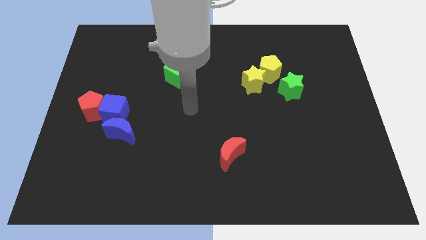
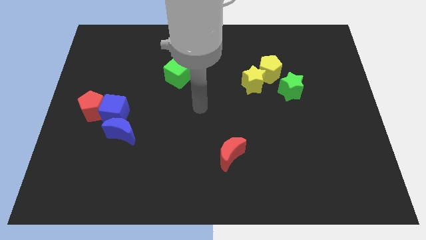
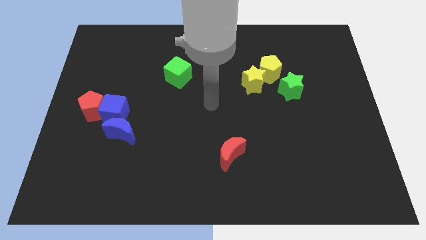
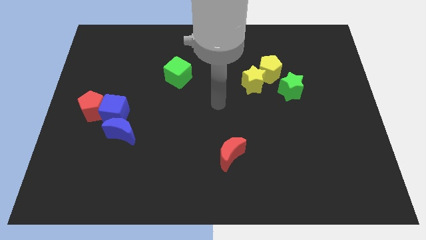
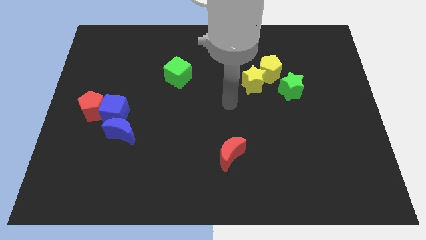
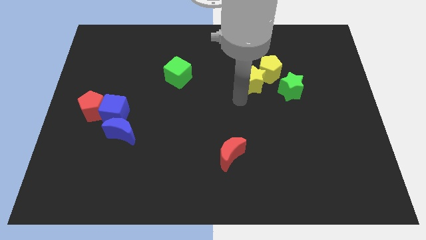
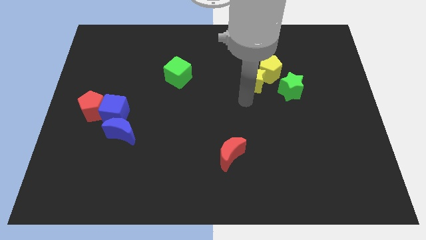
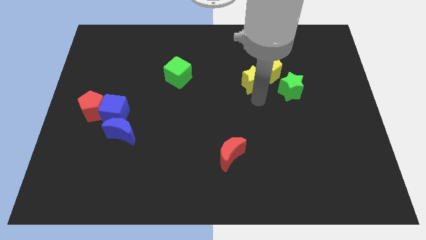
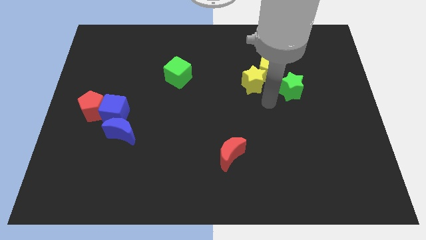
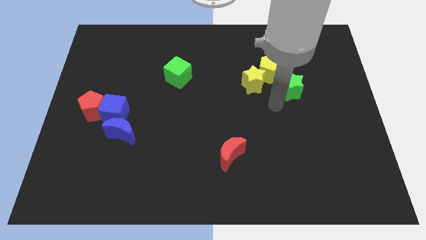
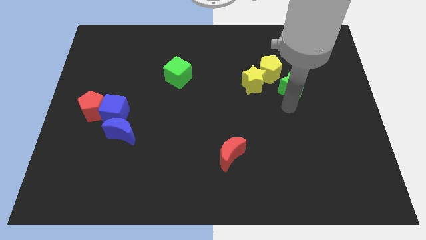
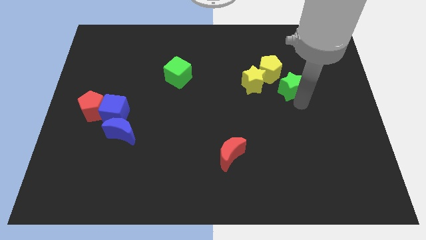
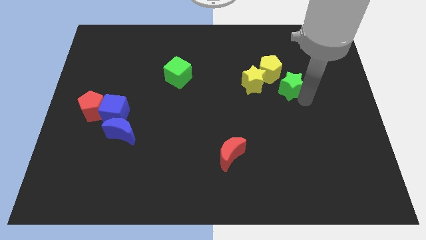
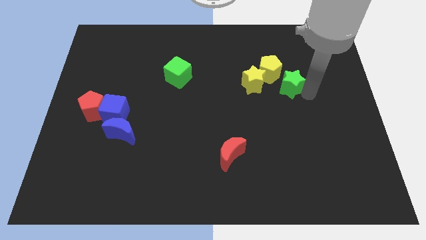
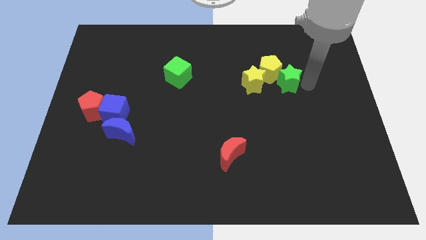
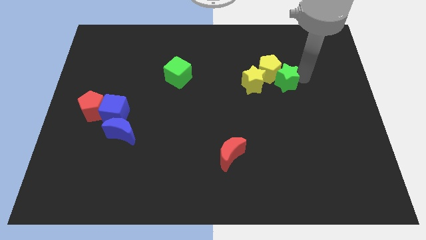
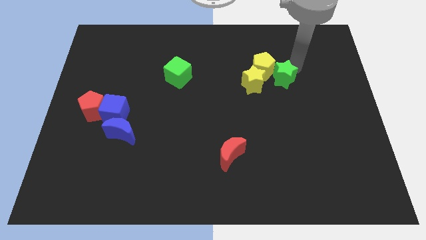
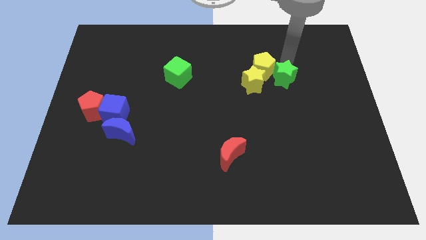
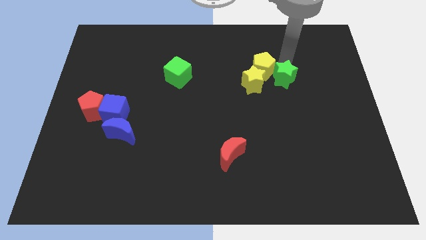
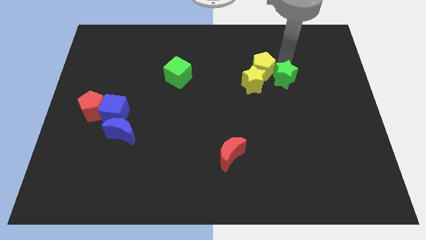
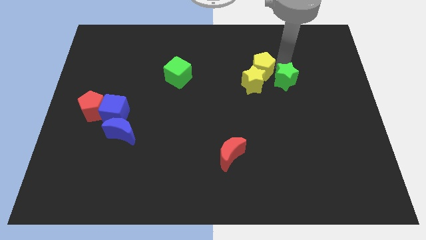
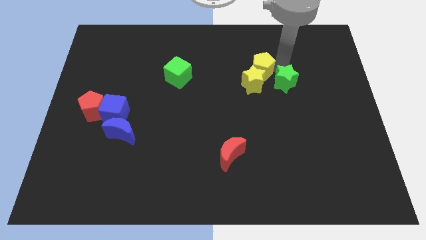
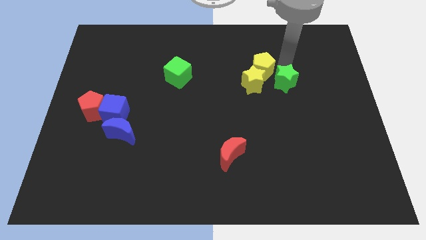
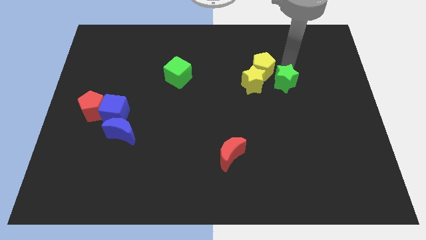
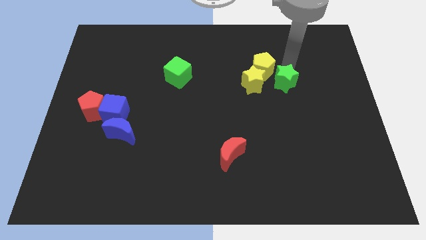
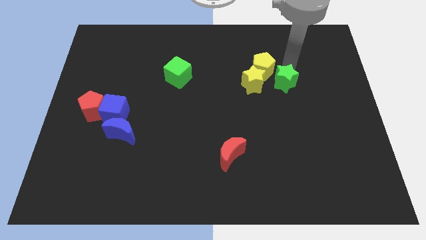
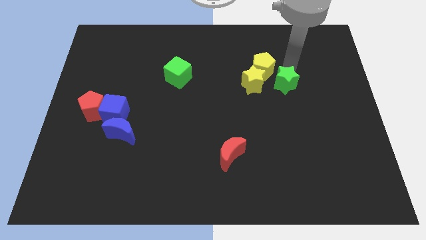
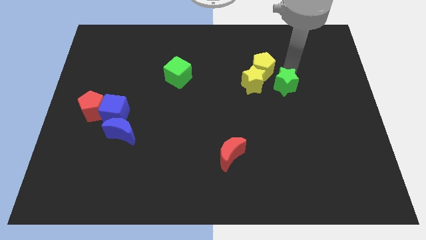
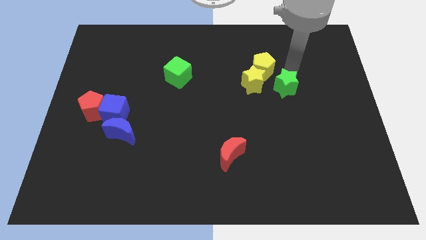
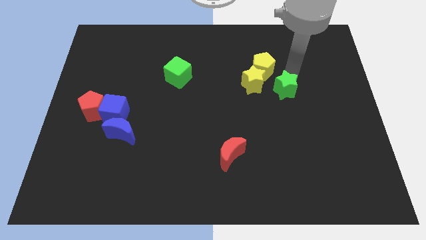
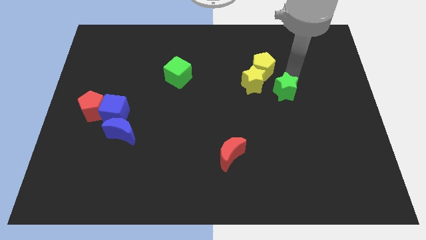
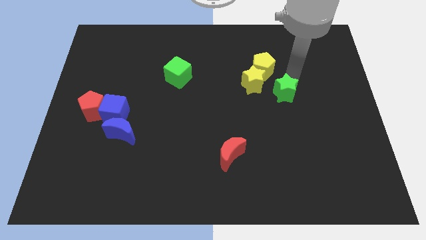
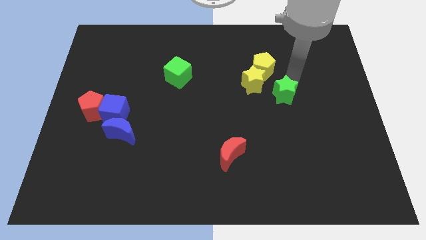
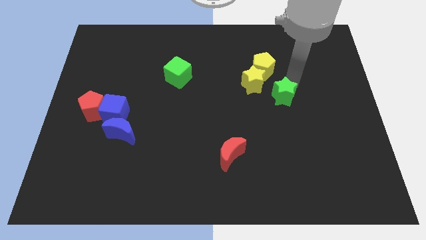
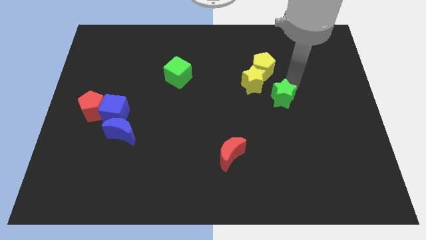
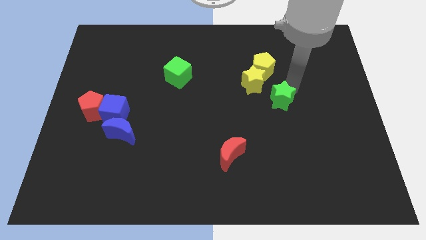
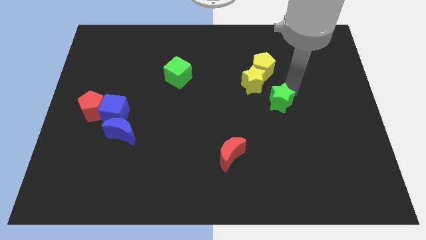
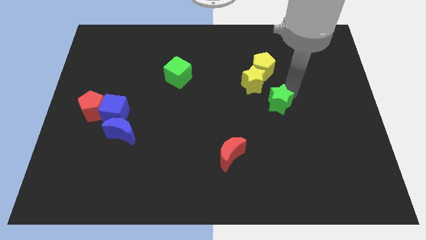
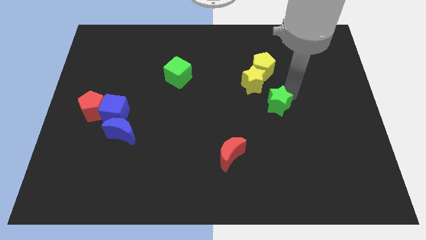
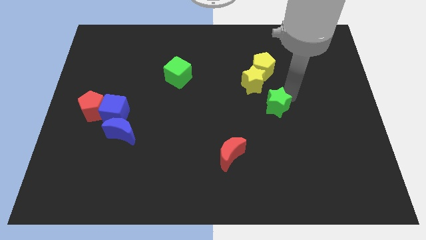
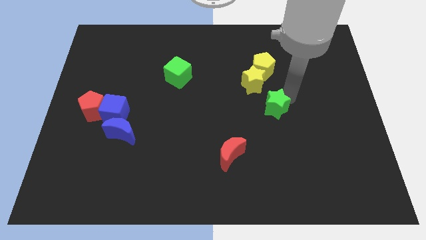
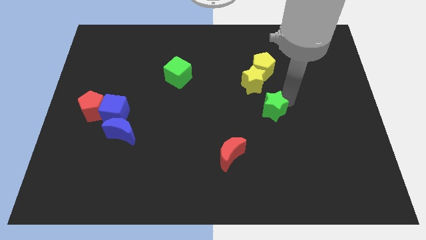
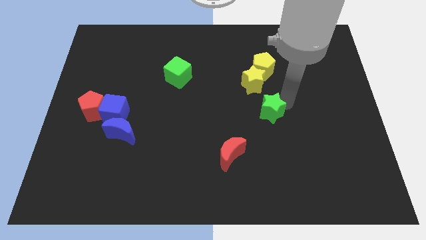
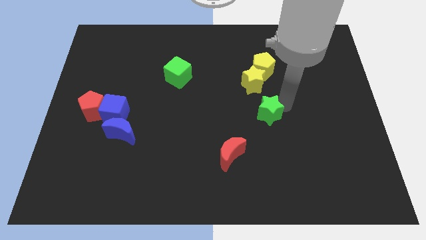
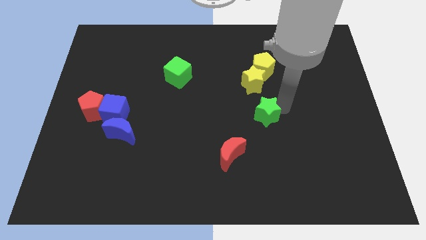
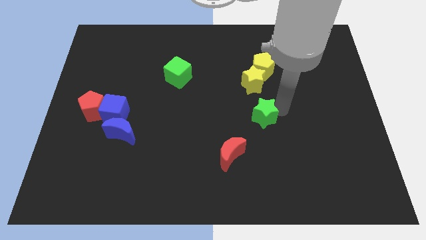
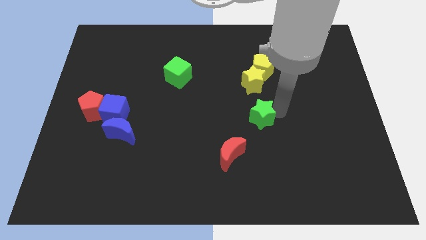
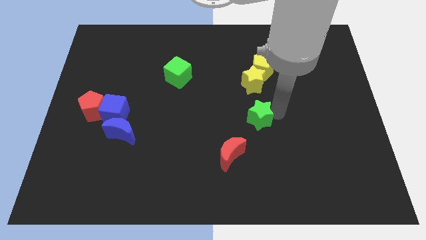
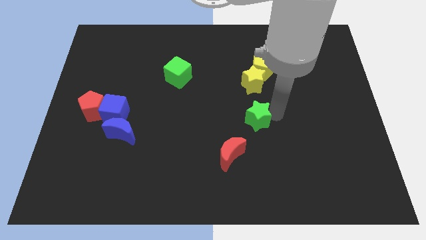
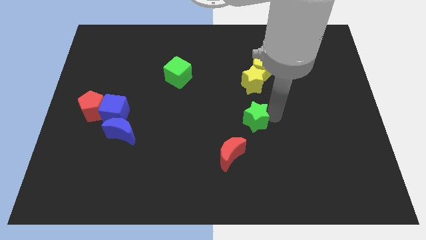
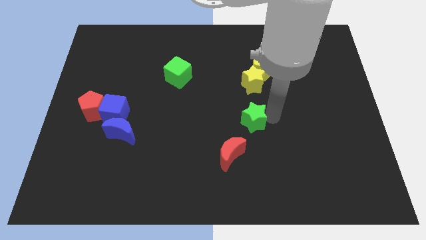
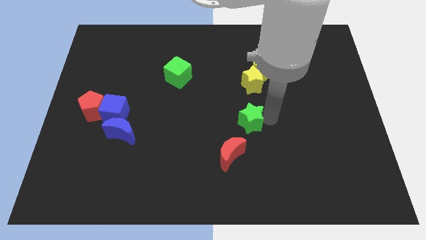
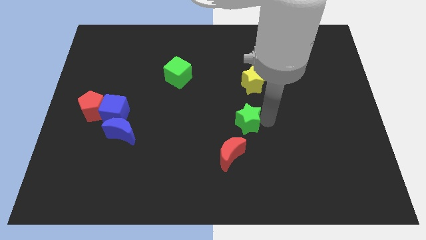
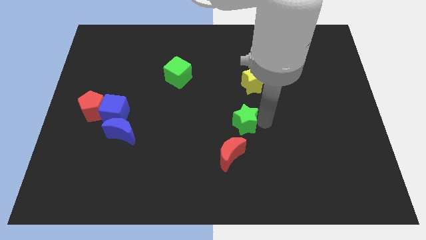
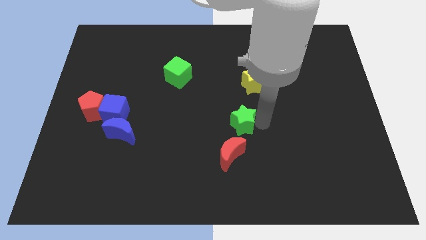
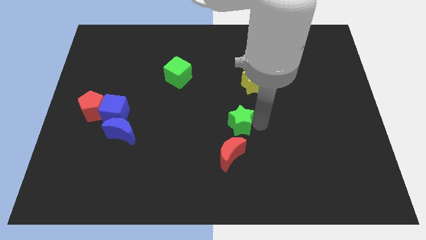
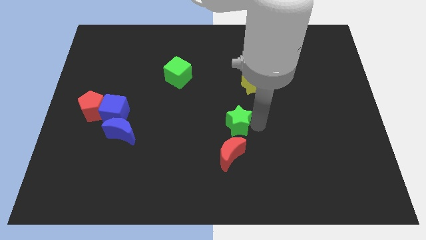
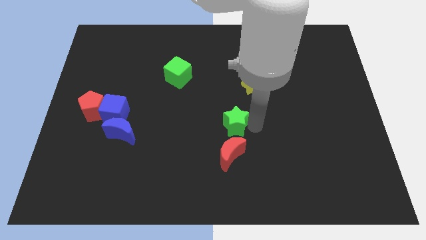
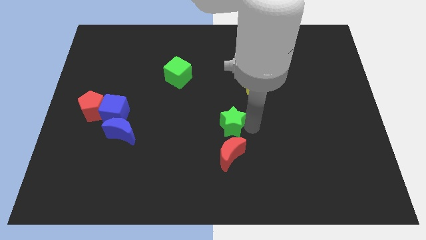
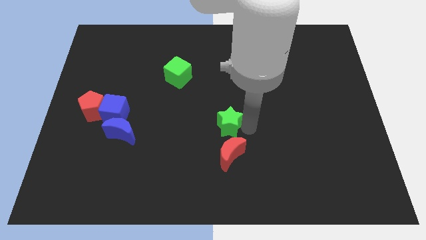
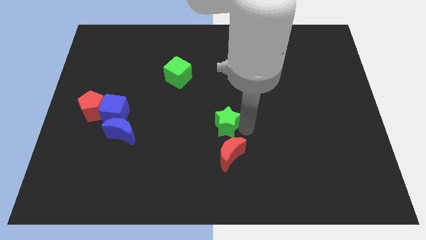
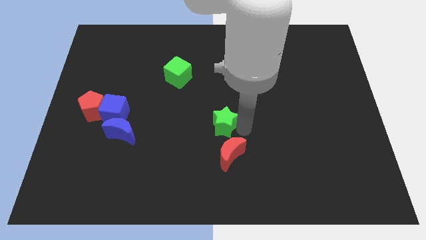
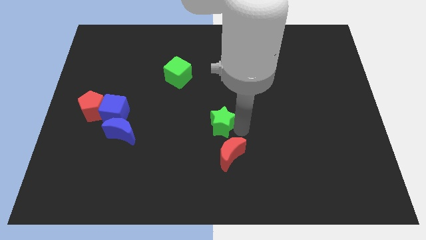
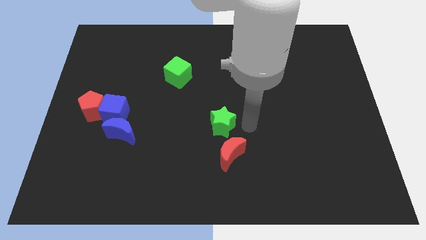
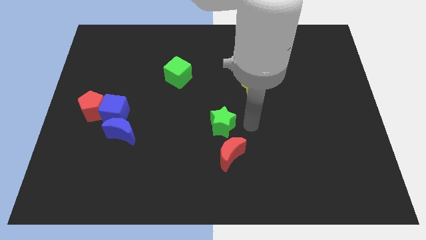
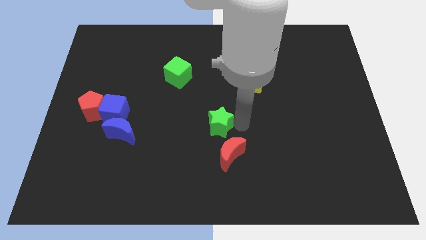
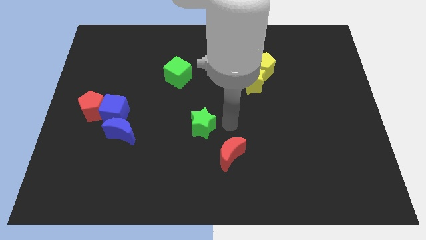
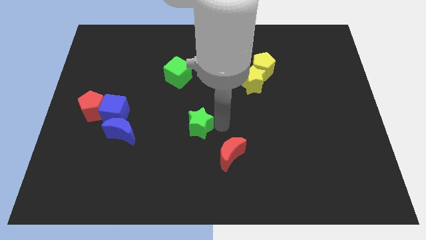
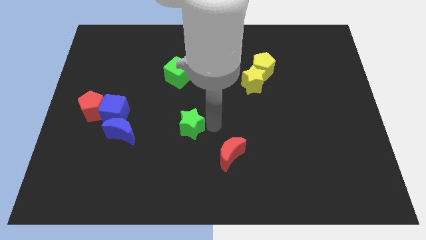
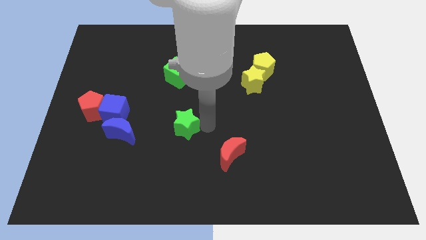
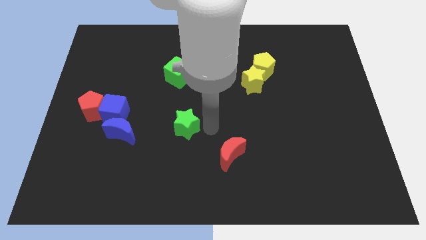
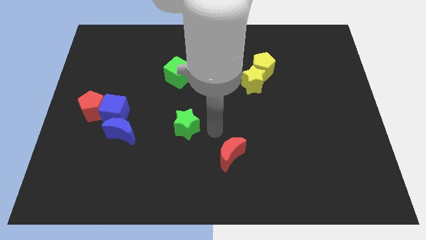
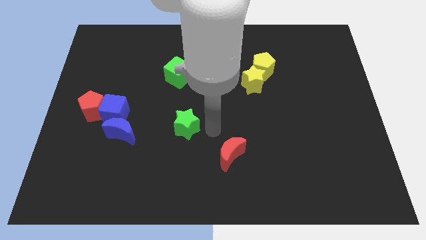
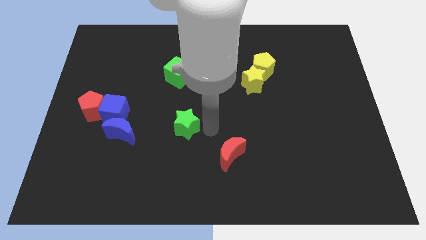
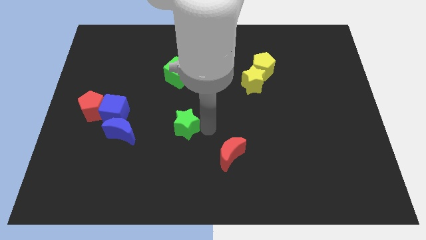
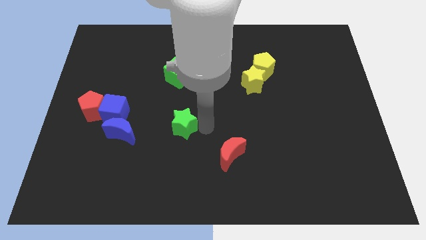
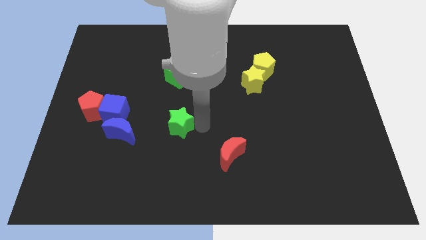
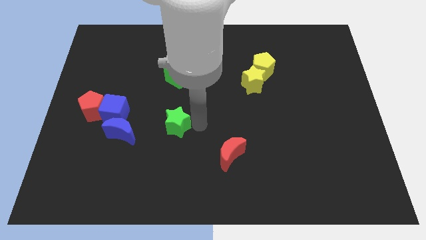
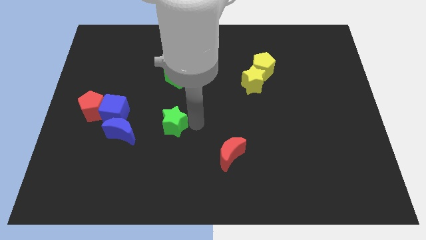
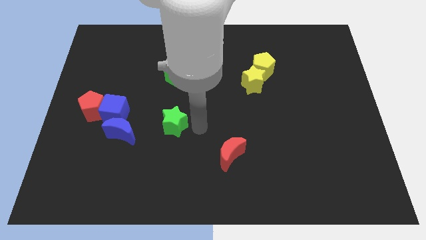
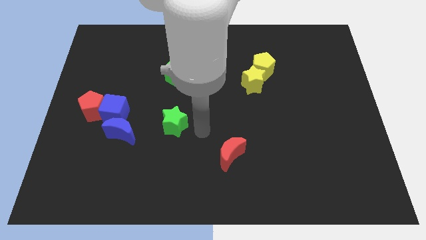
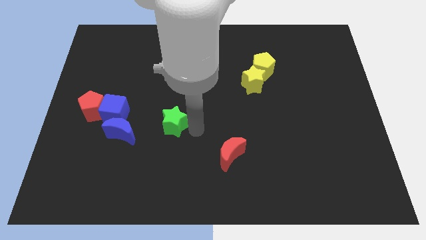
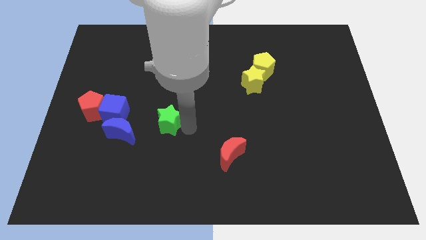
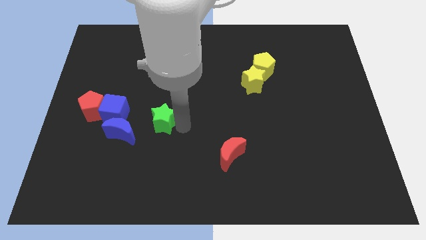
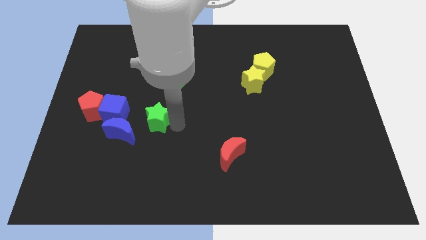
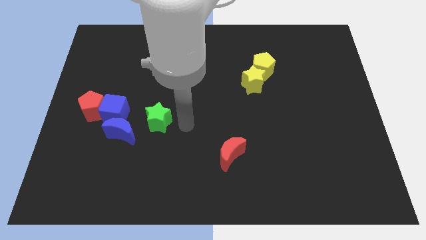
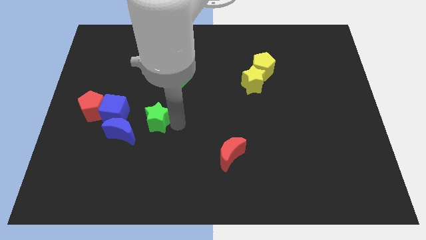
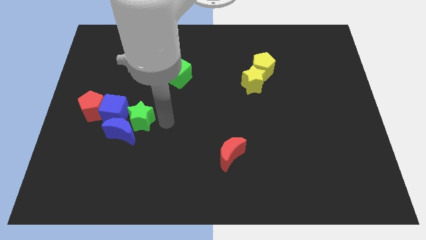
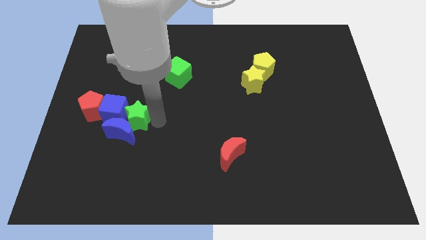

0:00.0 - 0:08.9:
put the green star towards the blue cube
